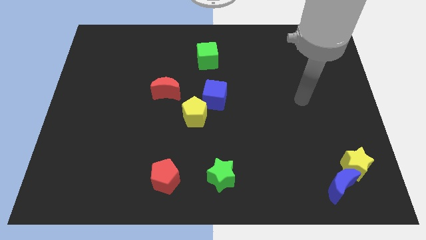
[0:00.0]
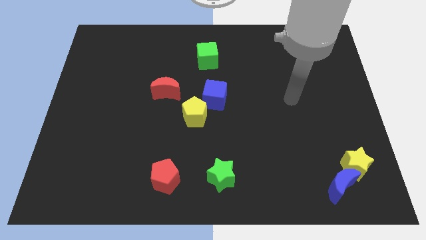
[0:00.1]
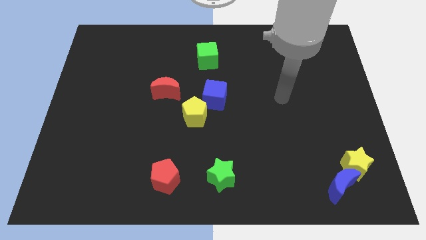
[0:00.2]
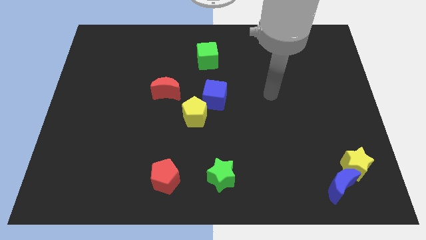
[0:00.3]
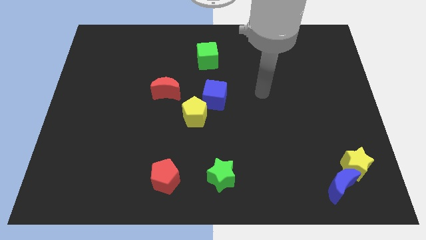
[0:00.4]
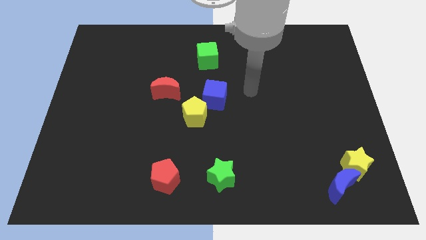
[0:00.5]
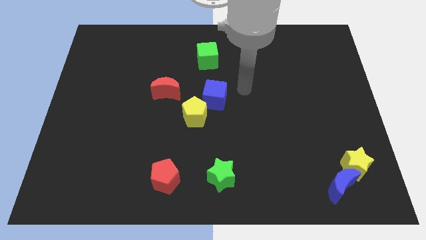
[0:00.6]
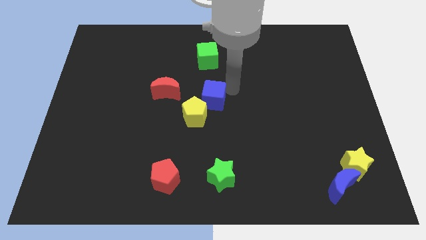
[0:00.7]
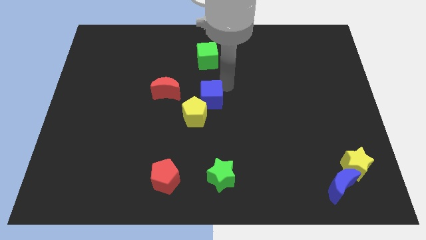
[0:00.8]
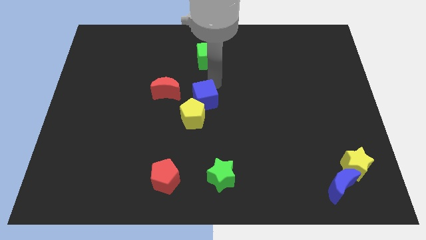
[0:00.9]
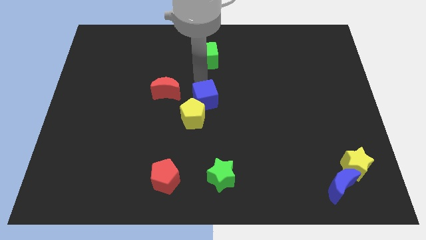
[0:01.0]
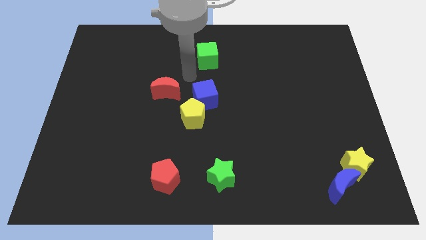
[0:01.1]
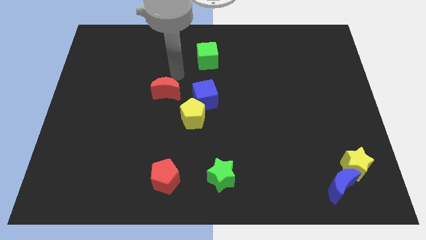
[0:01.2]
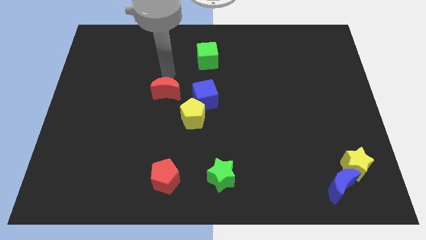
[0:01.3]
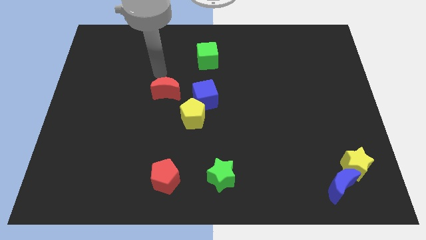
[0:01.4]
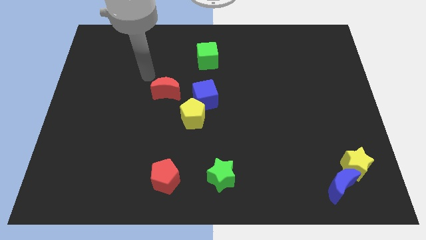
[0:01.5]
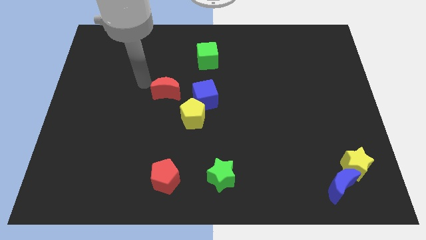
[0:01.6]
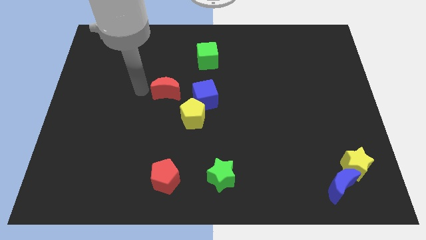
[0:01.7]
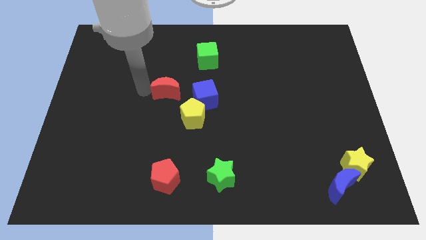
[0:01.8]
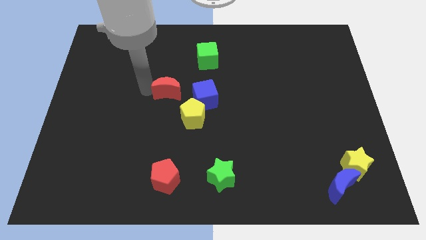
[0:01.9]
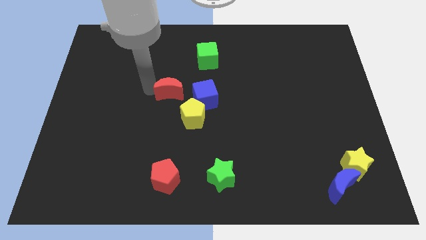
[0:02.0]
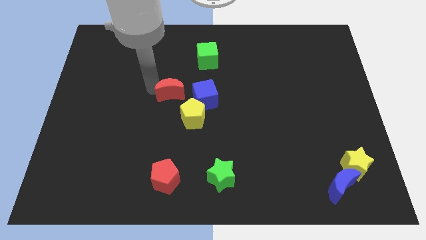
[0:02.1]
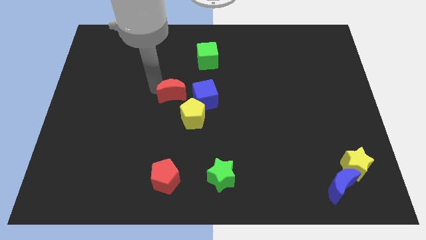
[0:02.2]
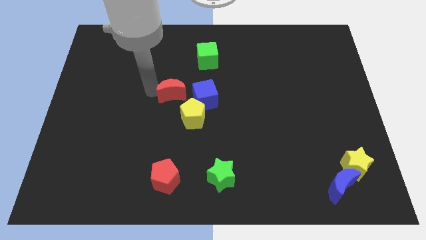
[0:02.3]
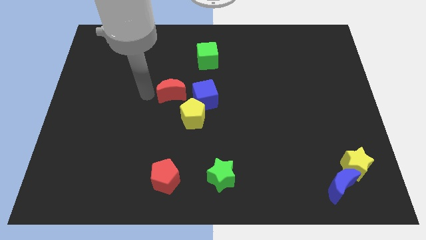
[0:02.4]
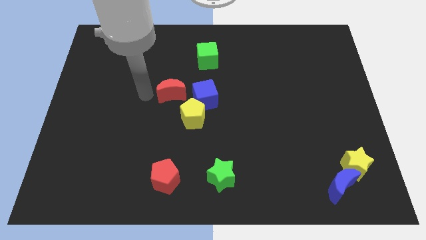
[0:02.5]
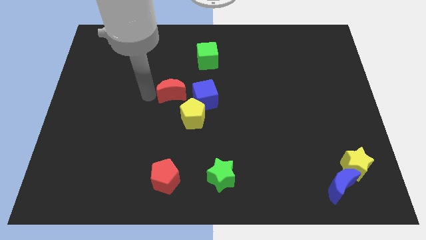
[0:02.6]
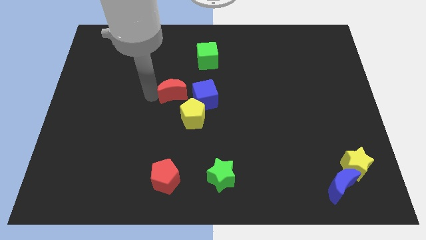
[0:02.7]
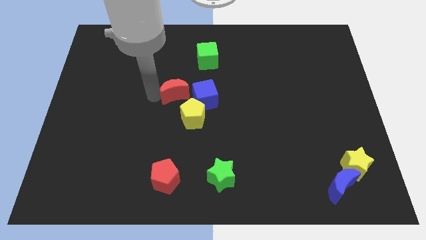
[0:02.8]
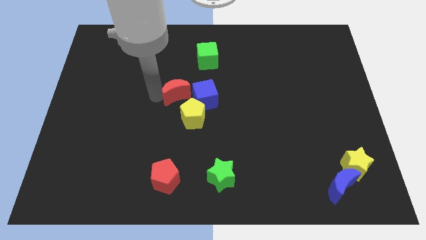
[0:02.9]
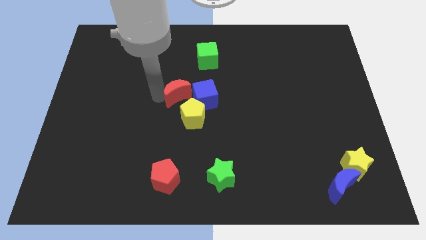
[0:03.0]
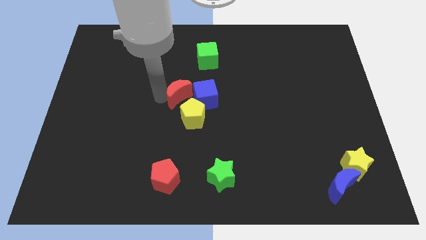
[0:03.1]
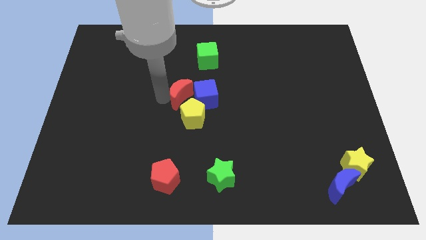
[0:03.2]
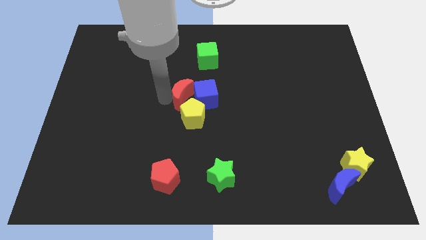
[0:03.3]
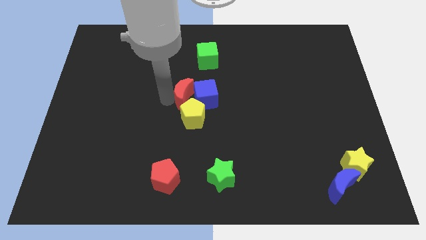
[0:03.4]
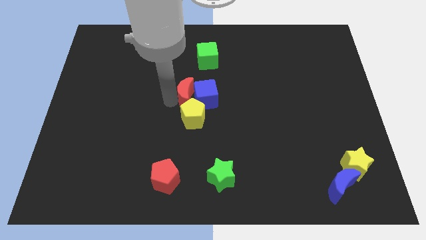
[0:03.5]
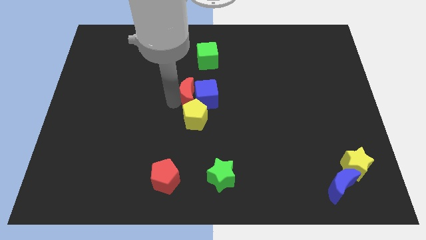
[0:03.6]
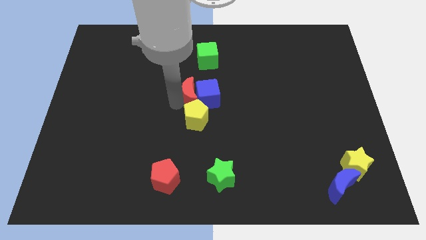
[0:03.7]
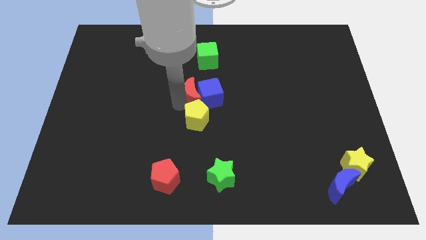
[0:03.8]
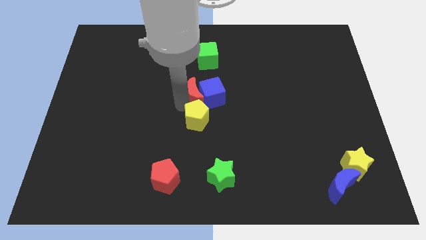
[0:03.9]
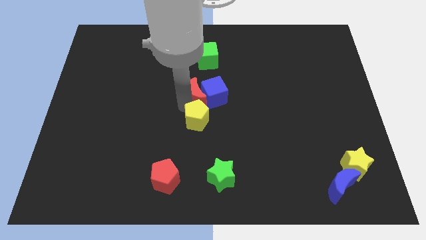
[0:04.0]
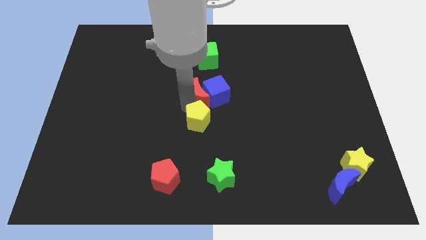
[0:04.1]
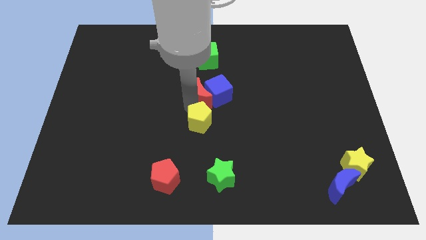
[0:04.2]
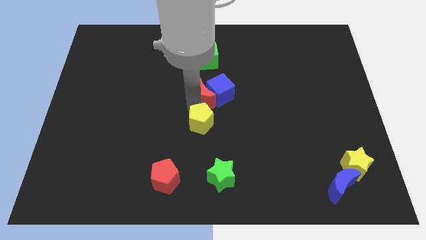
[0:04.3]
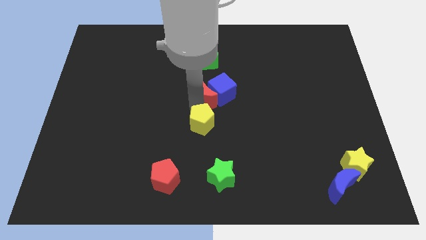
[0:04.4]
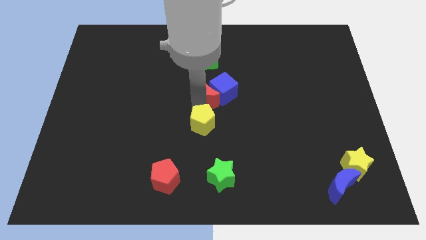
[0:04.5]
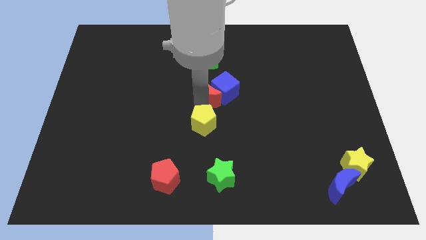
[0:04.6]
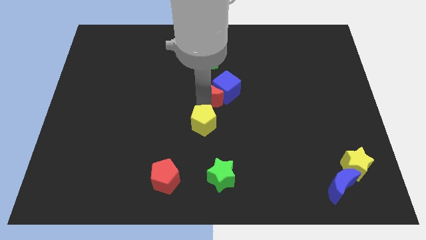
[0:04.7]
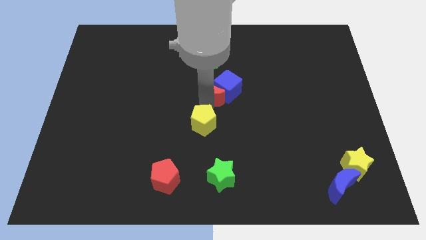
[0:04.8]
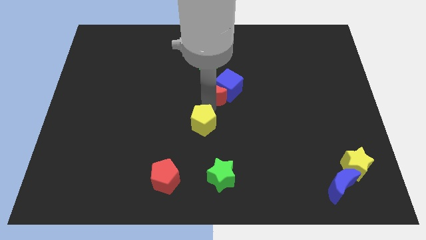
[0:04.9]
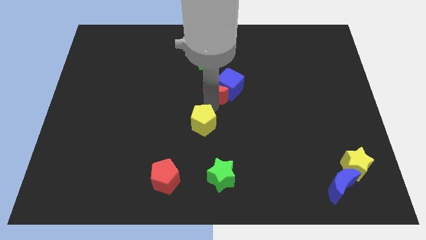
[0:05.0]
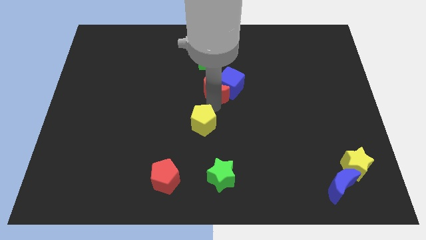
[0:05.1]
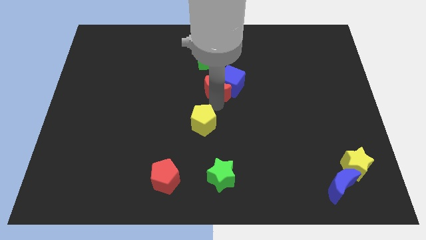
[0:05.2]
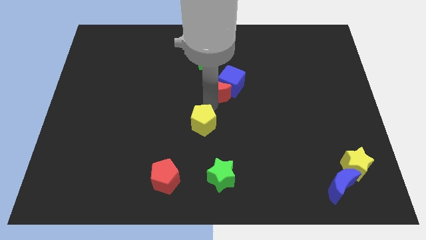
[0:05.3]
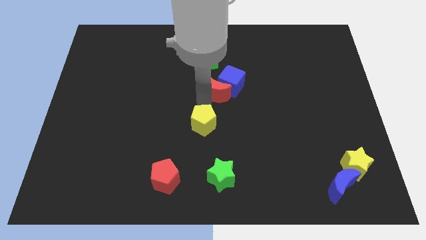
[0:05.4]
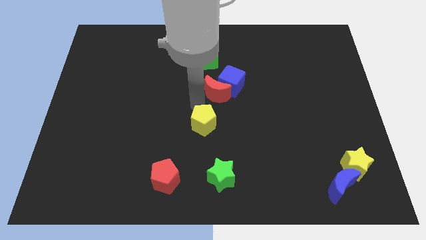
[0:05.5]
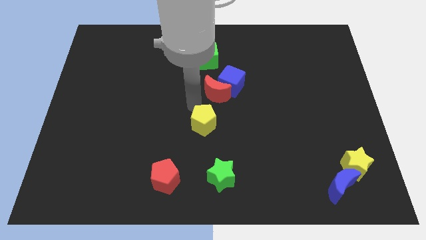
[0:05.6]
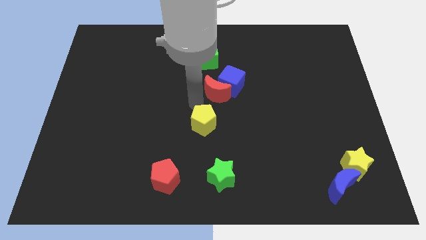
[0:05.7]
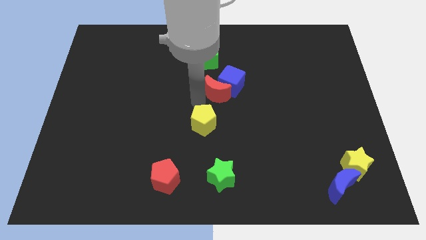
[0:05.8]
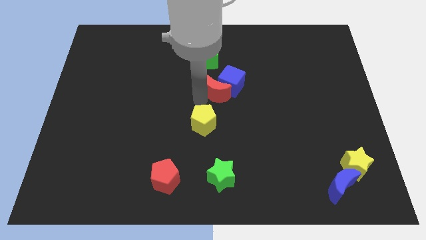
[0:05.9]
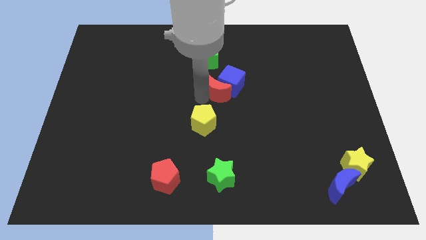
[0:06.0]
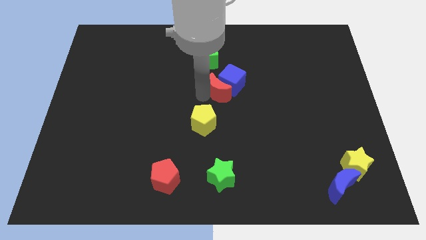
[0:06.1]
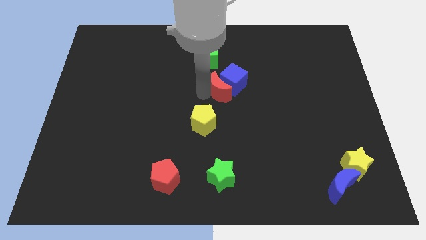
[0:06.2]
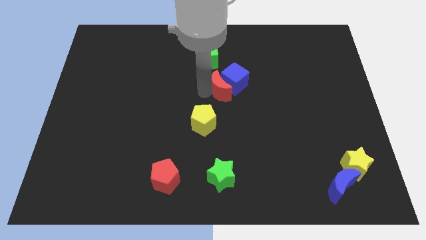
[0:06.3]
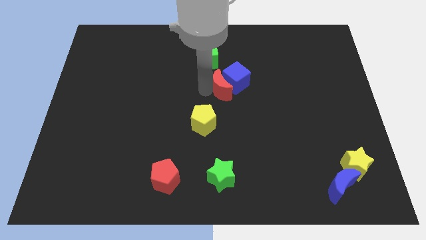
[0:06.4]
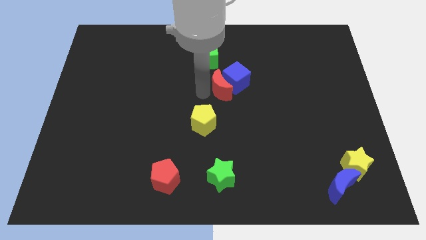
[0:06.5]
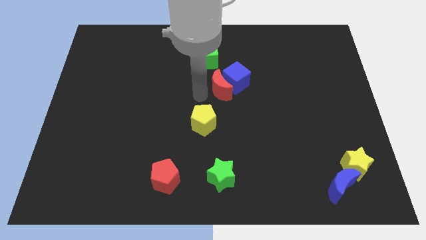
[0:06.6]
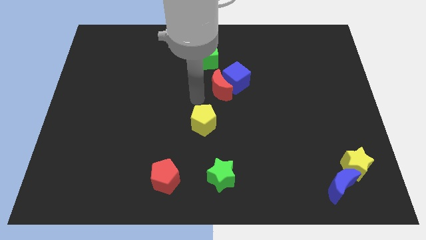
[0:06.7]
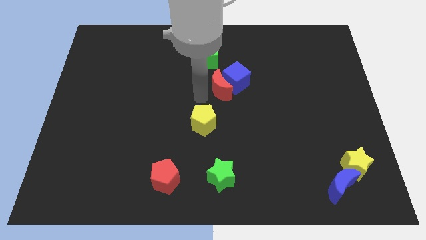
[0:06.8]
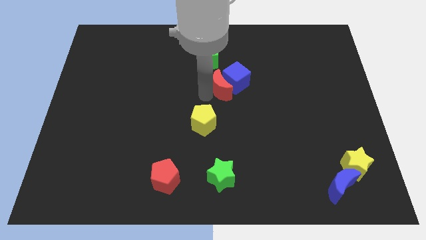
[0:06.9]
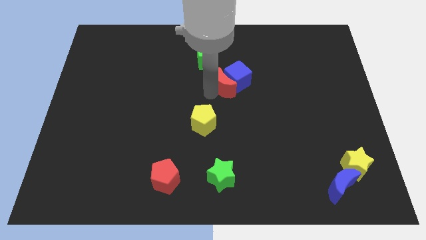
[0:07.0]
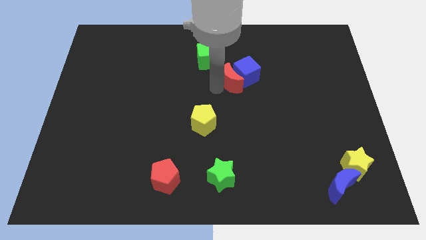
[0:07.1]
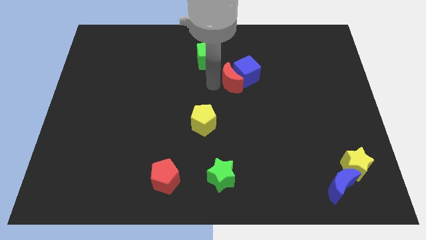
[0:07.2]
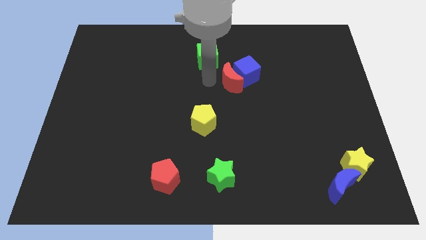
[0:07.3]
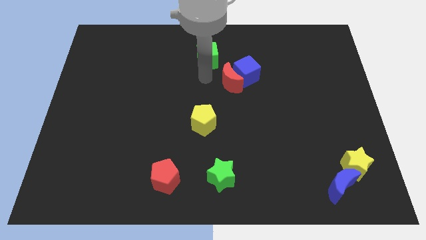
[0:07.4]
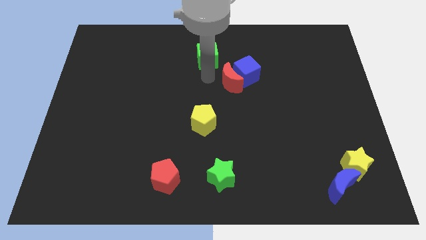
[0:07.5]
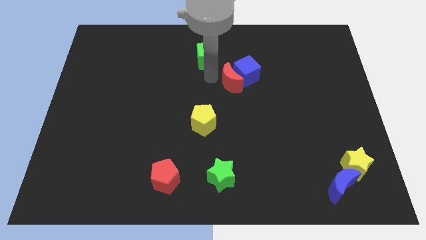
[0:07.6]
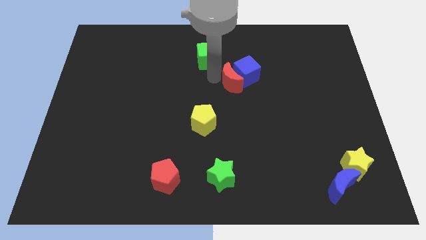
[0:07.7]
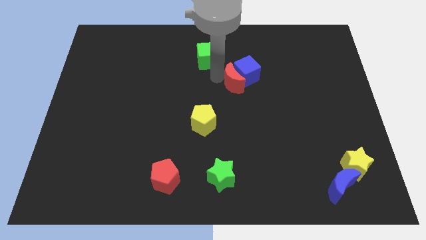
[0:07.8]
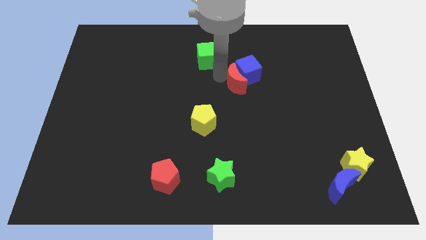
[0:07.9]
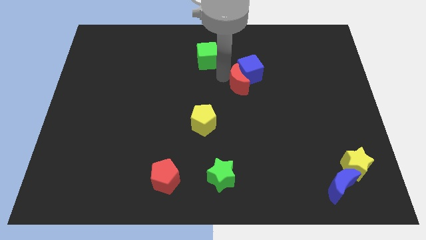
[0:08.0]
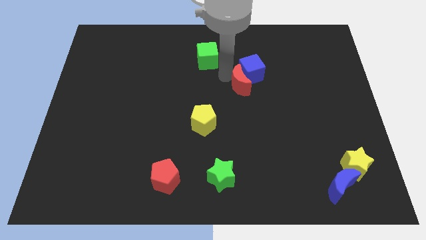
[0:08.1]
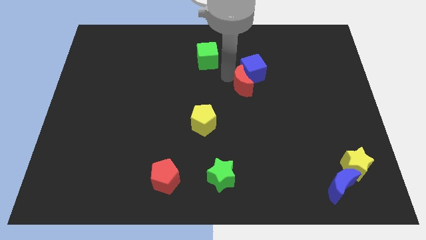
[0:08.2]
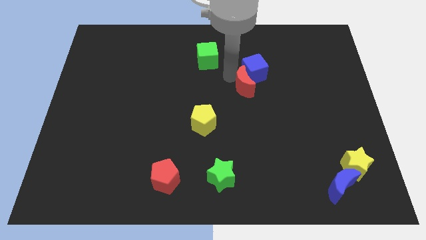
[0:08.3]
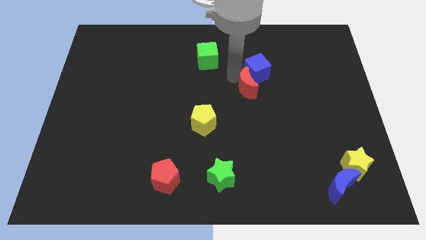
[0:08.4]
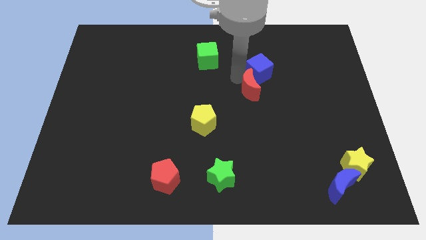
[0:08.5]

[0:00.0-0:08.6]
push the red moon right

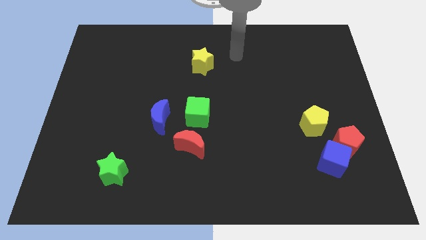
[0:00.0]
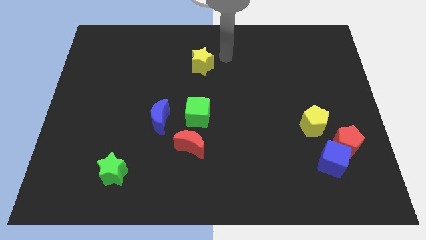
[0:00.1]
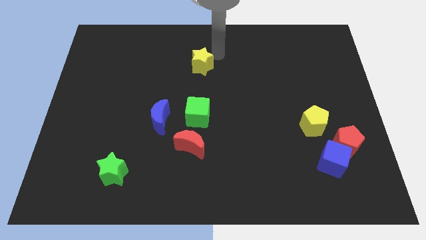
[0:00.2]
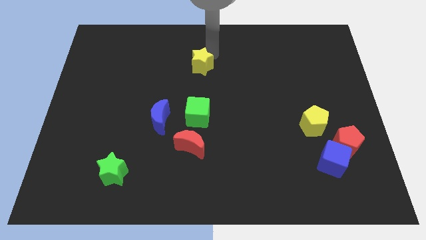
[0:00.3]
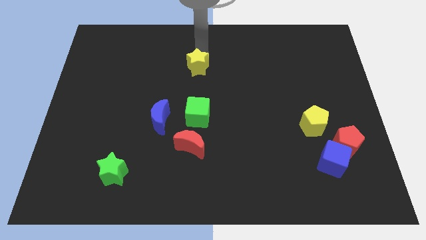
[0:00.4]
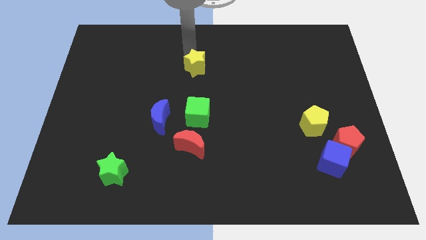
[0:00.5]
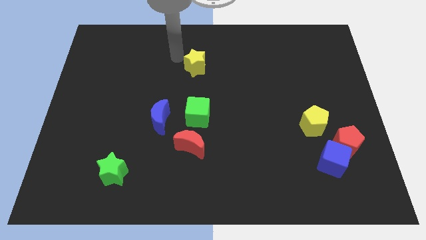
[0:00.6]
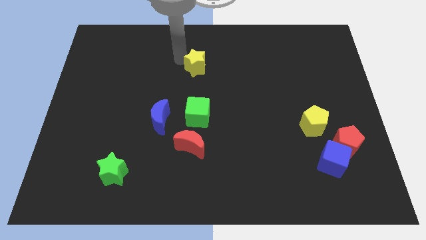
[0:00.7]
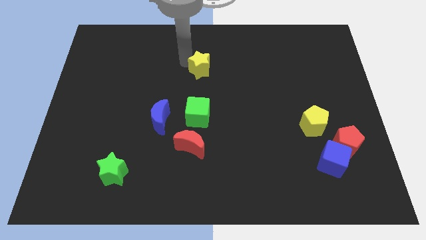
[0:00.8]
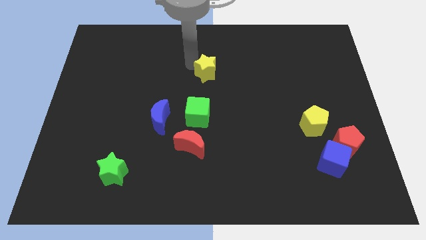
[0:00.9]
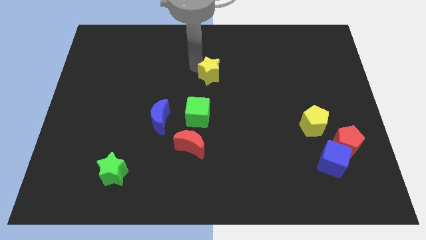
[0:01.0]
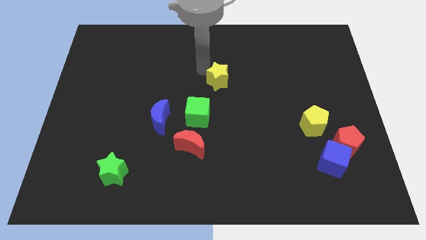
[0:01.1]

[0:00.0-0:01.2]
move the yellow star somewhat diagonally down and to the right
